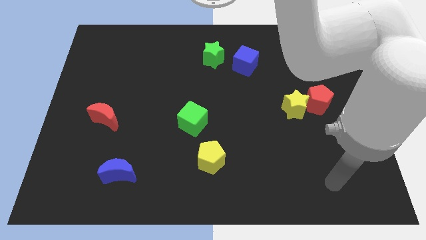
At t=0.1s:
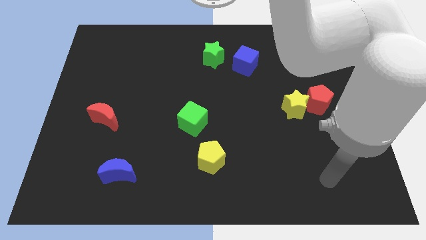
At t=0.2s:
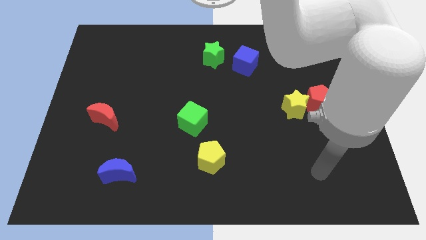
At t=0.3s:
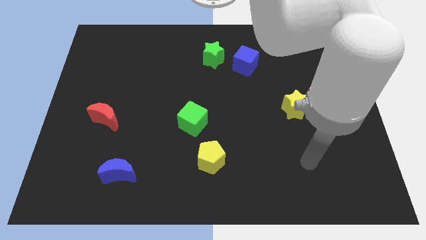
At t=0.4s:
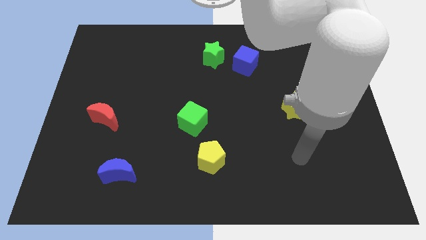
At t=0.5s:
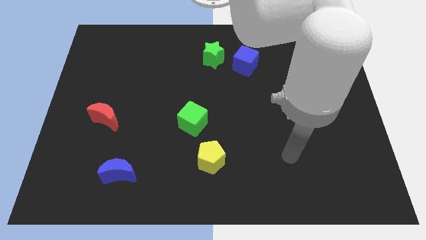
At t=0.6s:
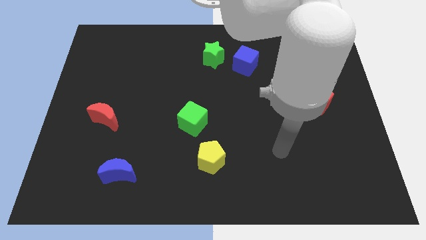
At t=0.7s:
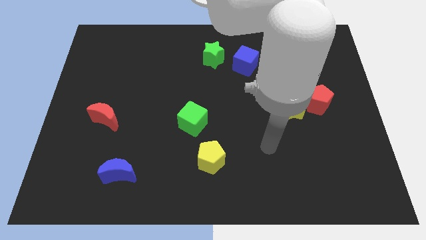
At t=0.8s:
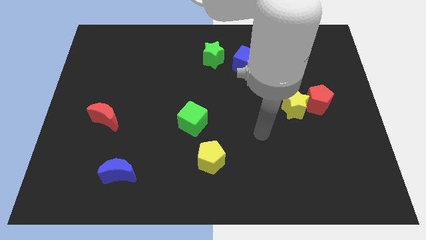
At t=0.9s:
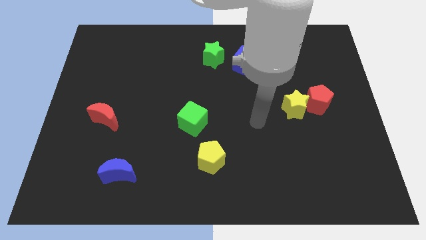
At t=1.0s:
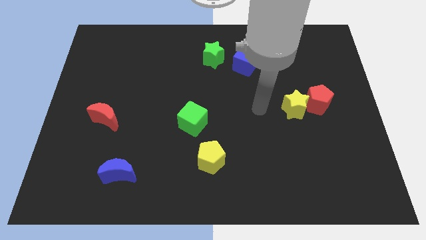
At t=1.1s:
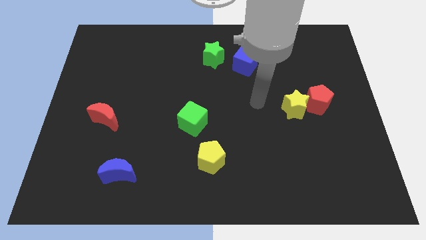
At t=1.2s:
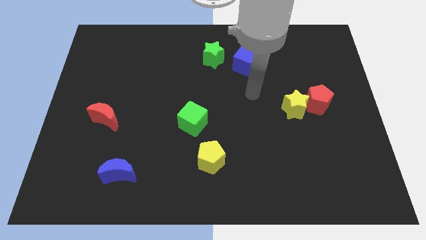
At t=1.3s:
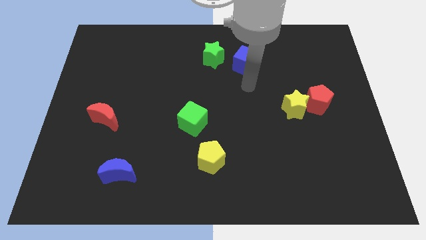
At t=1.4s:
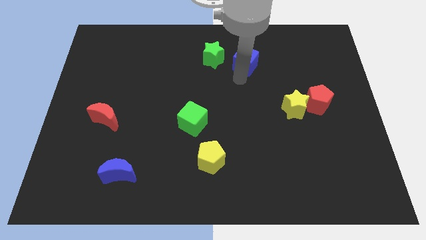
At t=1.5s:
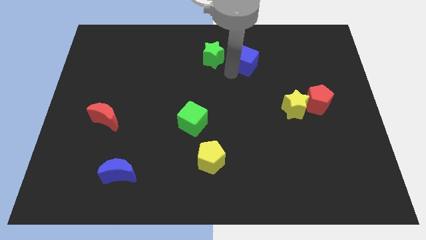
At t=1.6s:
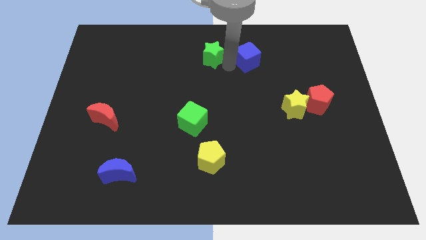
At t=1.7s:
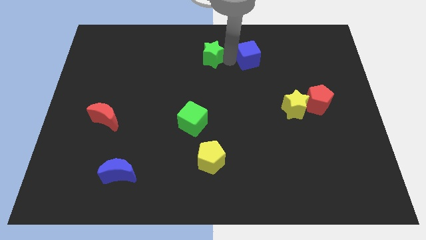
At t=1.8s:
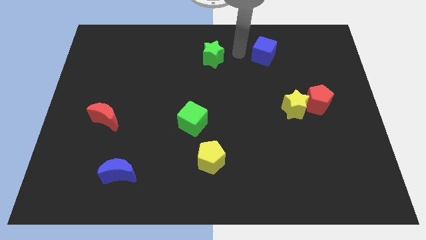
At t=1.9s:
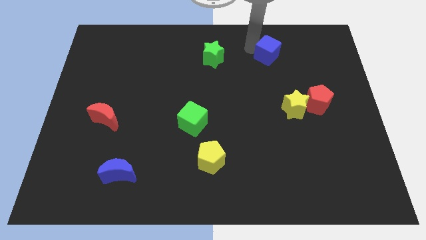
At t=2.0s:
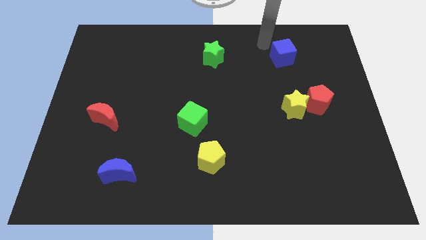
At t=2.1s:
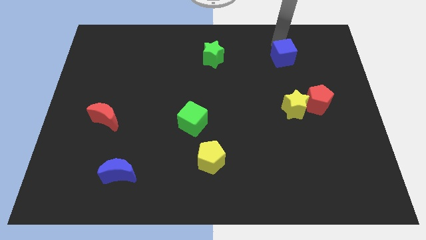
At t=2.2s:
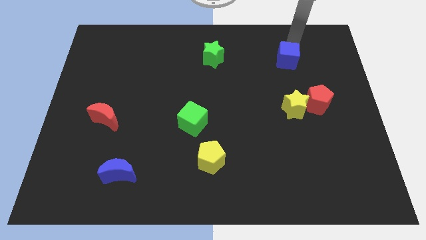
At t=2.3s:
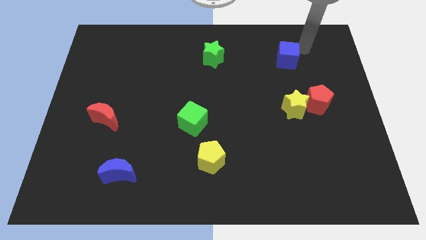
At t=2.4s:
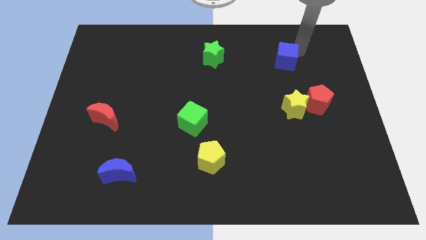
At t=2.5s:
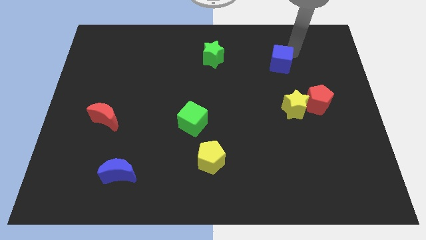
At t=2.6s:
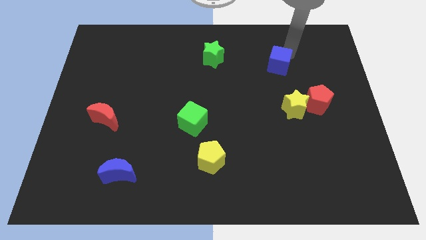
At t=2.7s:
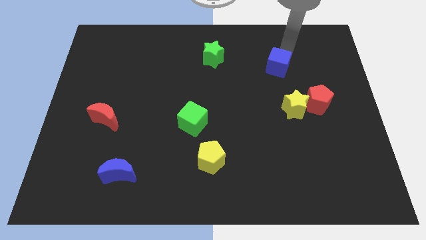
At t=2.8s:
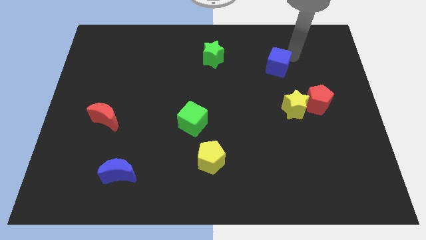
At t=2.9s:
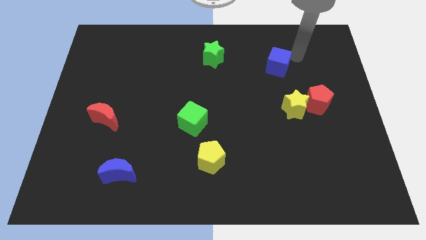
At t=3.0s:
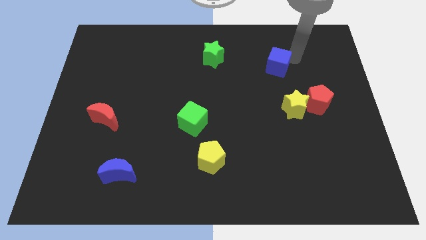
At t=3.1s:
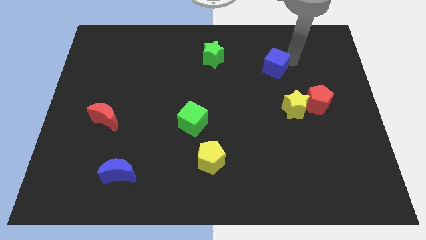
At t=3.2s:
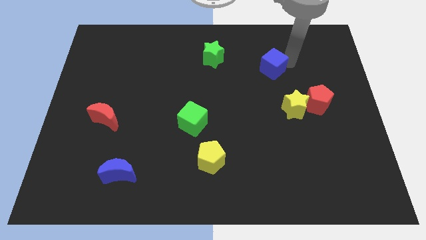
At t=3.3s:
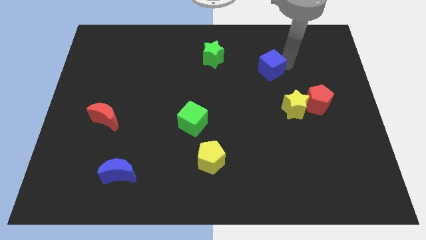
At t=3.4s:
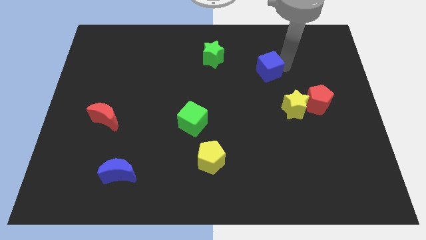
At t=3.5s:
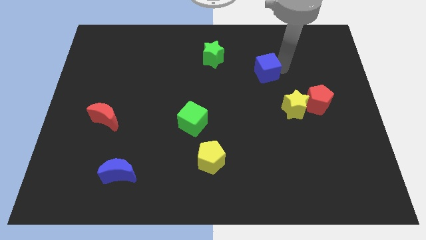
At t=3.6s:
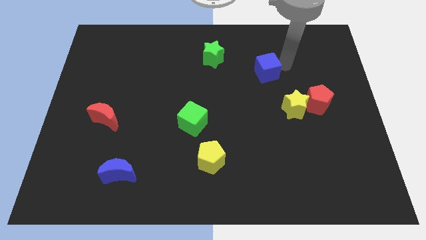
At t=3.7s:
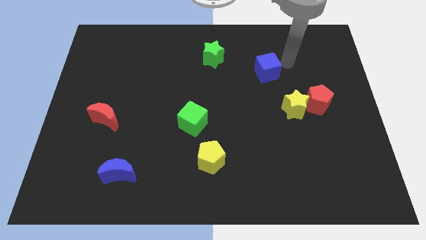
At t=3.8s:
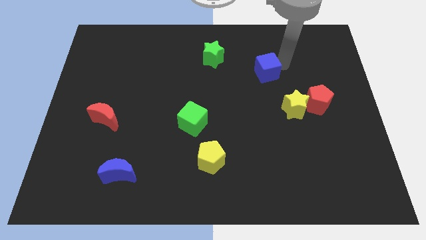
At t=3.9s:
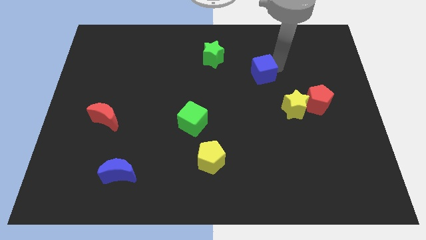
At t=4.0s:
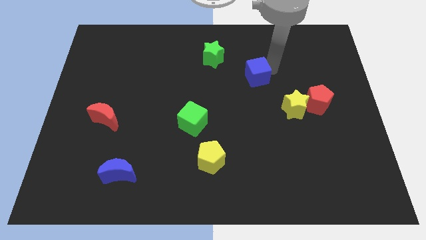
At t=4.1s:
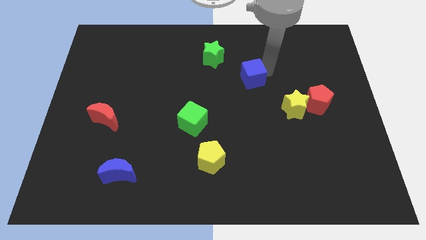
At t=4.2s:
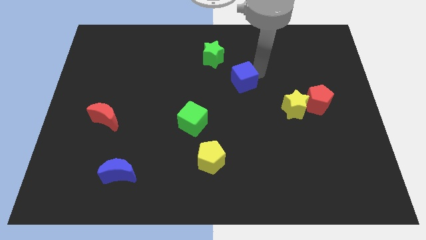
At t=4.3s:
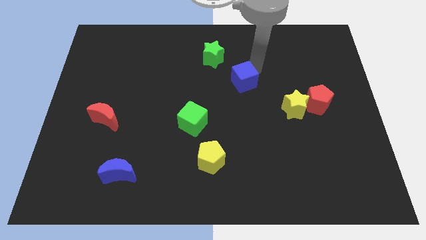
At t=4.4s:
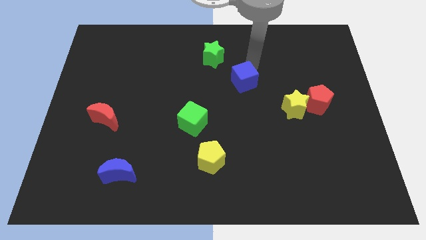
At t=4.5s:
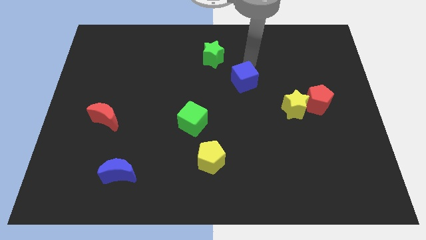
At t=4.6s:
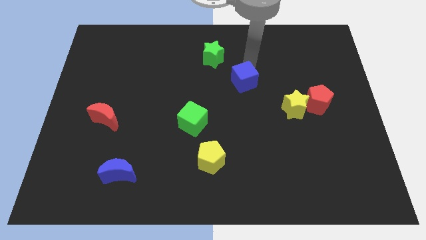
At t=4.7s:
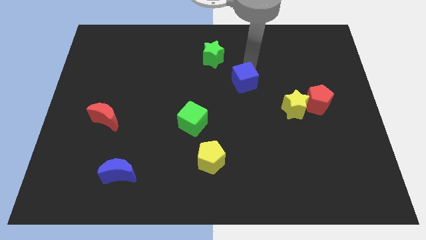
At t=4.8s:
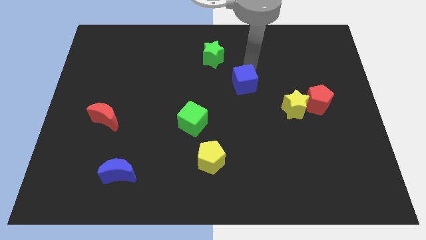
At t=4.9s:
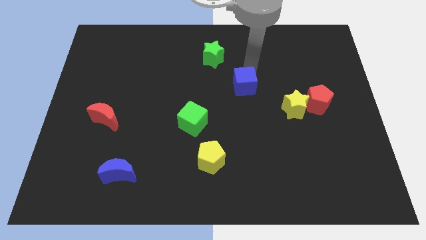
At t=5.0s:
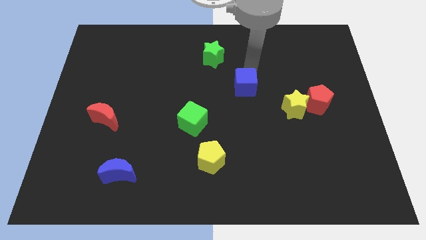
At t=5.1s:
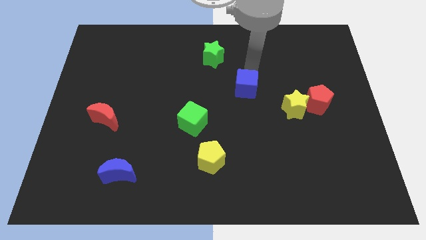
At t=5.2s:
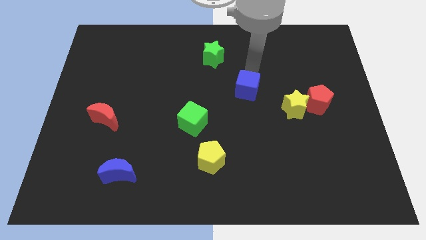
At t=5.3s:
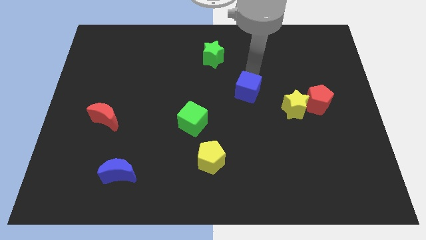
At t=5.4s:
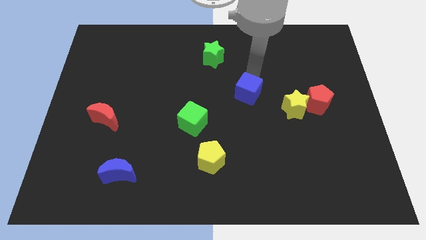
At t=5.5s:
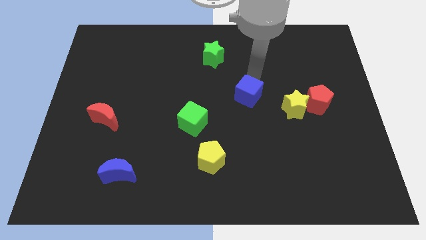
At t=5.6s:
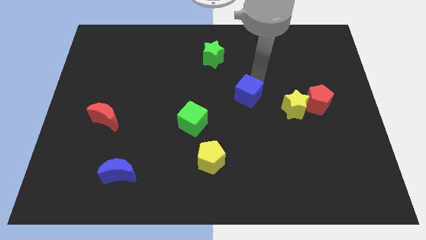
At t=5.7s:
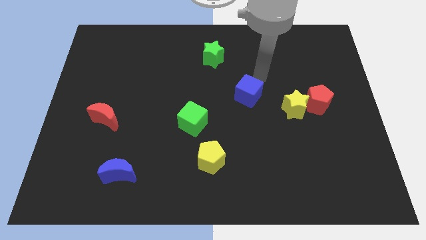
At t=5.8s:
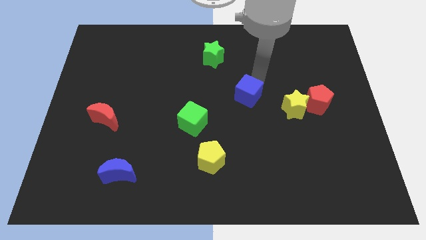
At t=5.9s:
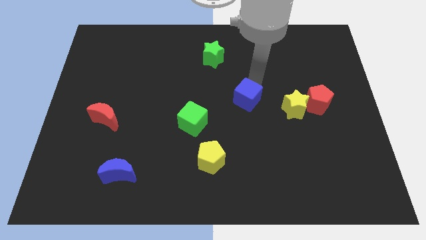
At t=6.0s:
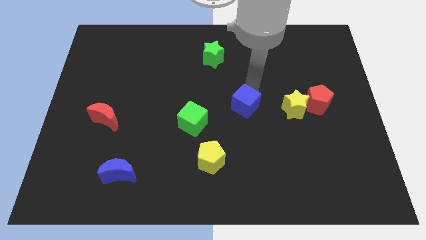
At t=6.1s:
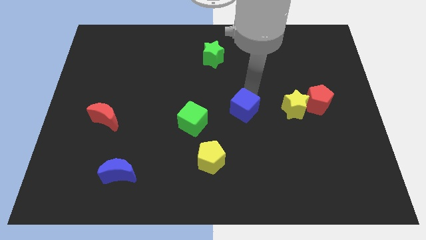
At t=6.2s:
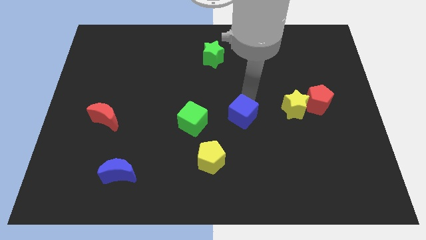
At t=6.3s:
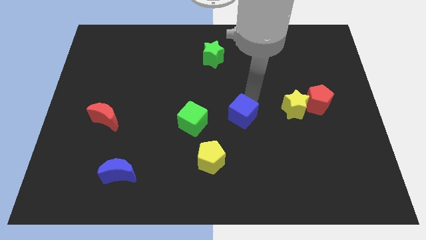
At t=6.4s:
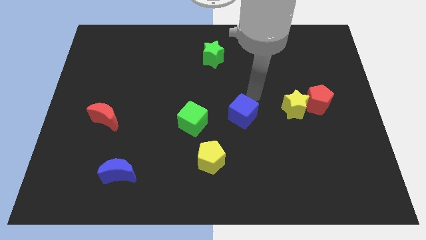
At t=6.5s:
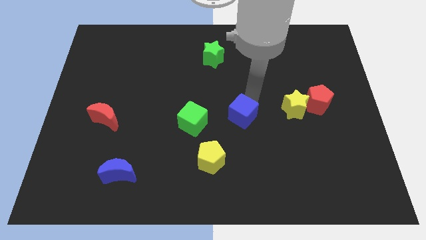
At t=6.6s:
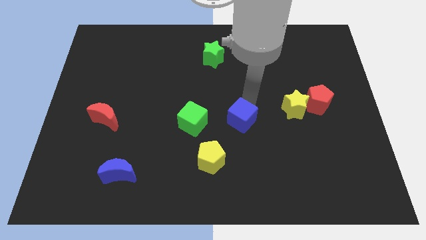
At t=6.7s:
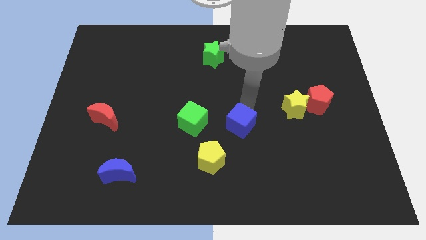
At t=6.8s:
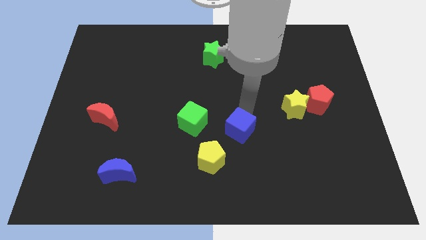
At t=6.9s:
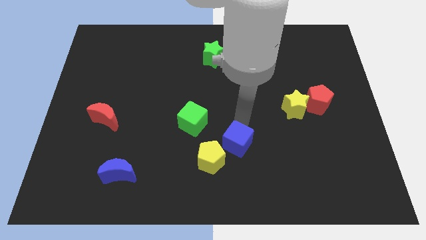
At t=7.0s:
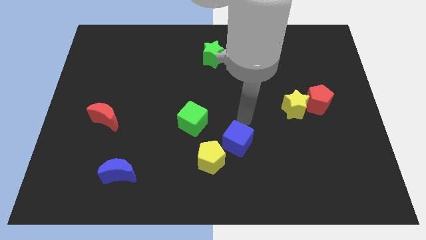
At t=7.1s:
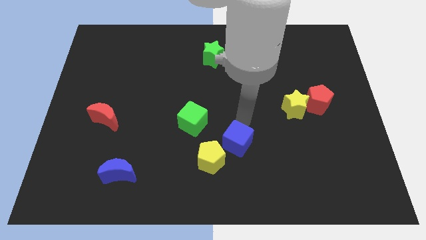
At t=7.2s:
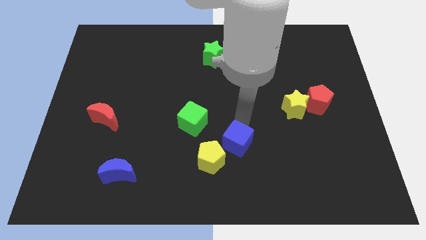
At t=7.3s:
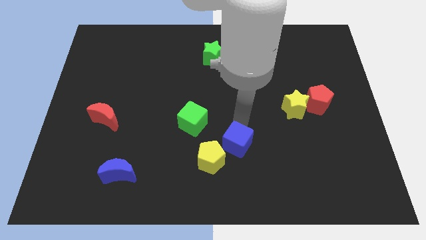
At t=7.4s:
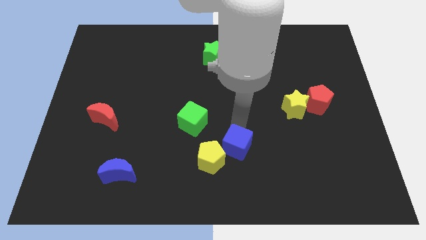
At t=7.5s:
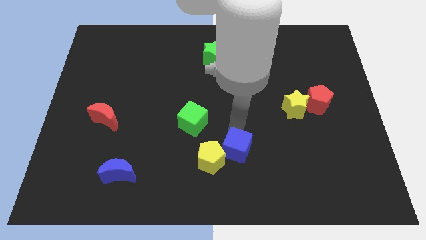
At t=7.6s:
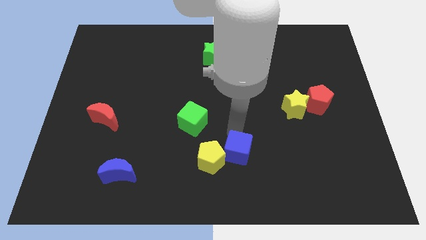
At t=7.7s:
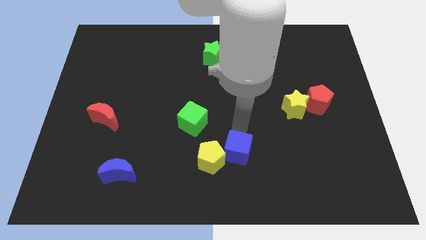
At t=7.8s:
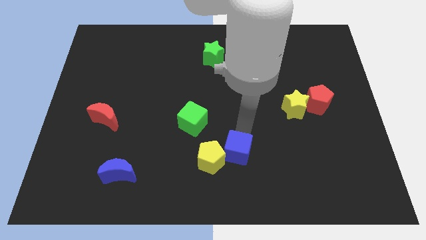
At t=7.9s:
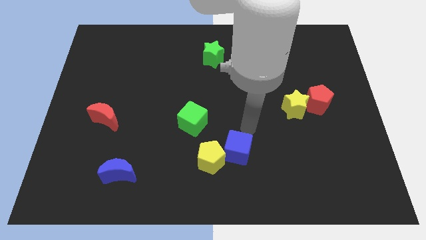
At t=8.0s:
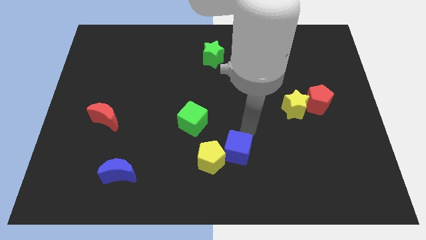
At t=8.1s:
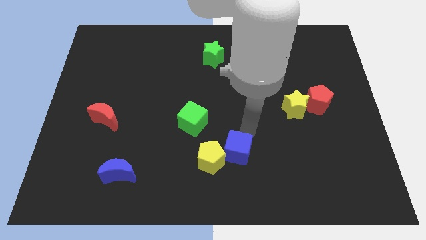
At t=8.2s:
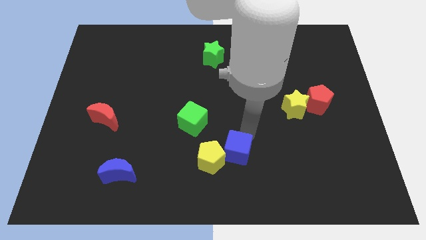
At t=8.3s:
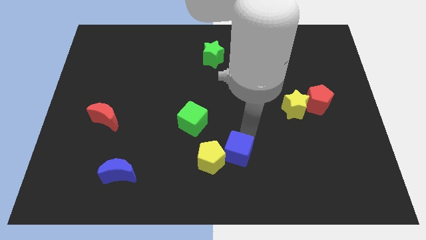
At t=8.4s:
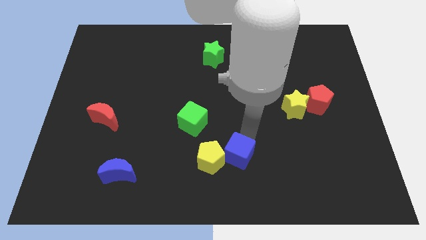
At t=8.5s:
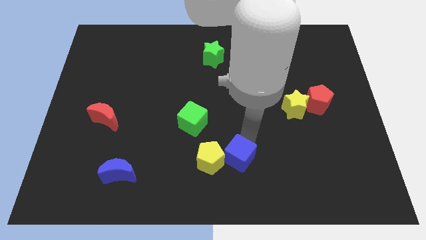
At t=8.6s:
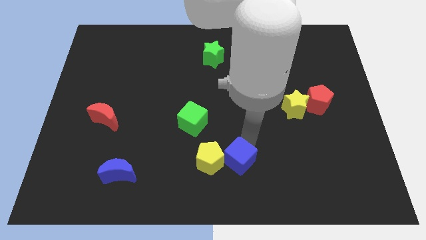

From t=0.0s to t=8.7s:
push the blue cube to the bottom side
